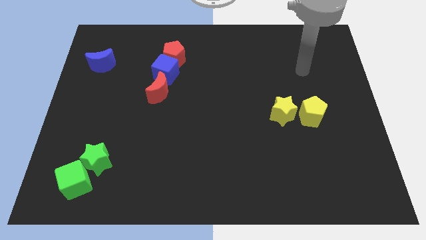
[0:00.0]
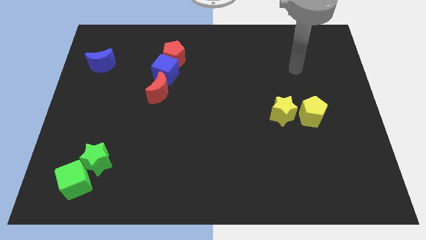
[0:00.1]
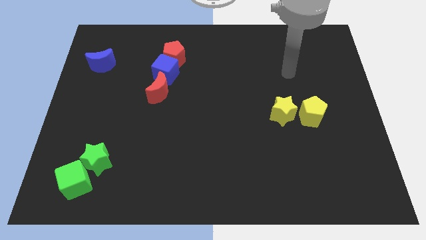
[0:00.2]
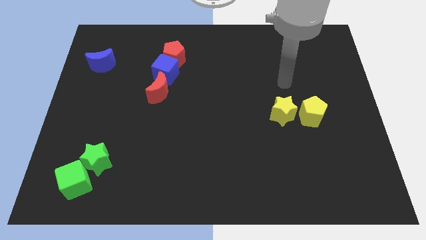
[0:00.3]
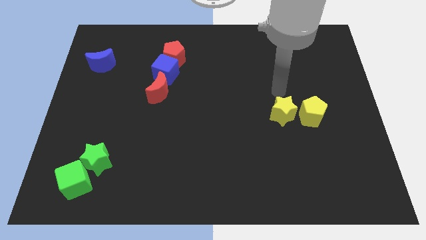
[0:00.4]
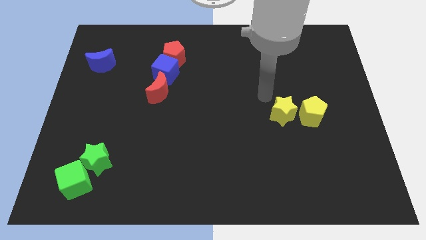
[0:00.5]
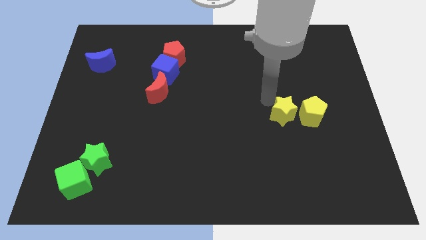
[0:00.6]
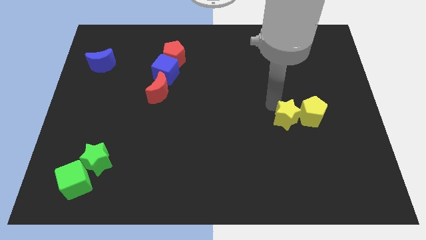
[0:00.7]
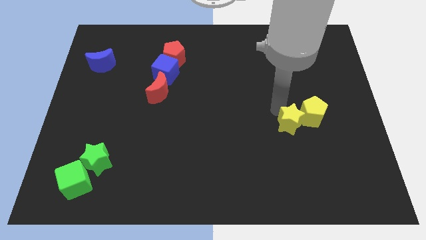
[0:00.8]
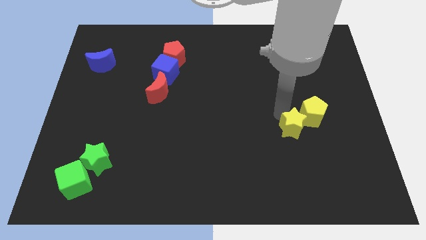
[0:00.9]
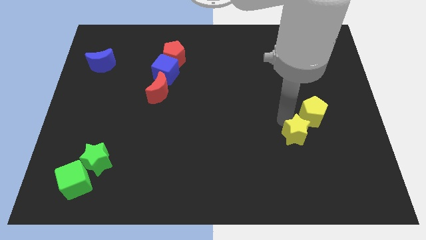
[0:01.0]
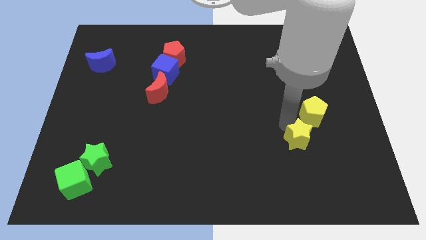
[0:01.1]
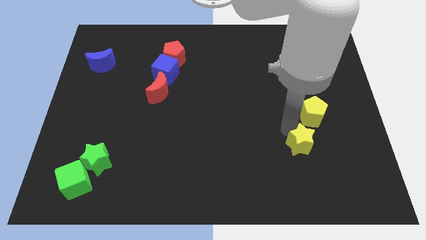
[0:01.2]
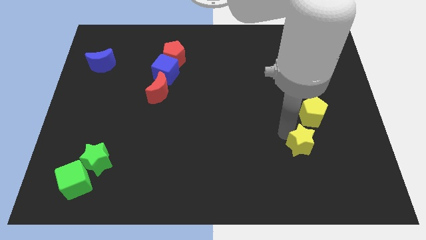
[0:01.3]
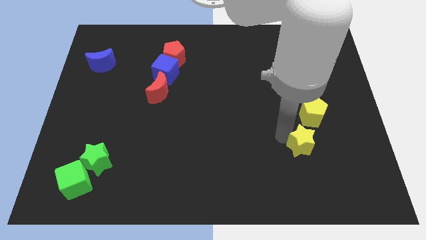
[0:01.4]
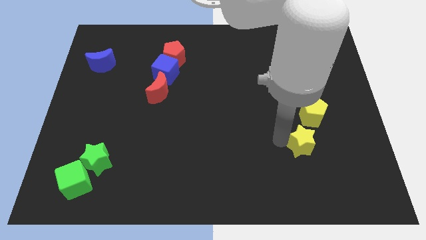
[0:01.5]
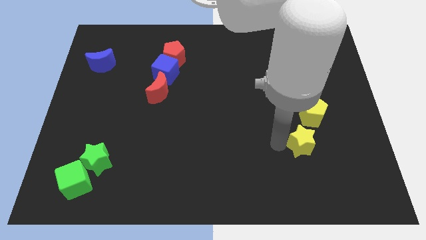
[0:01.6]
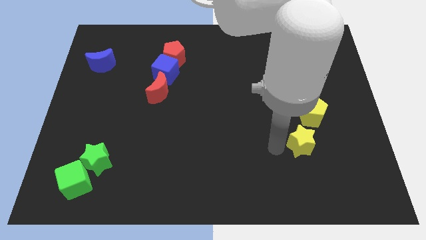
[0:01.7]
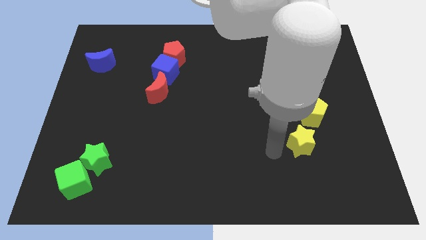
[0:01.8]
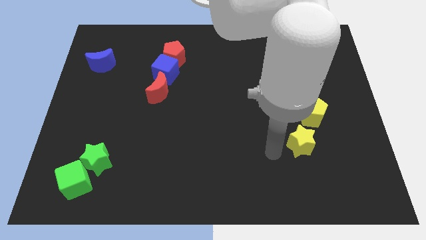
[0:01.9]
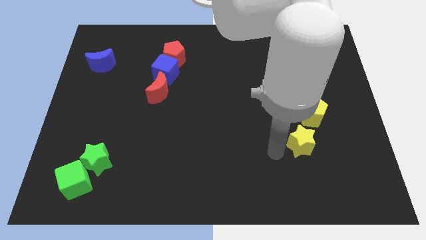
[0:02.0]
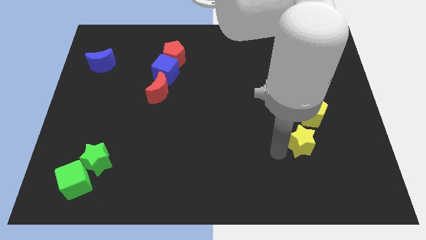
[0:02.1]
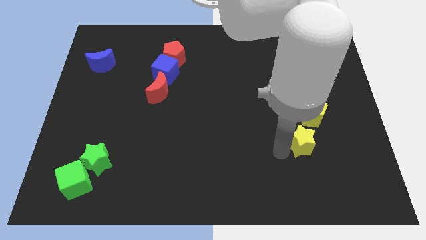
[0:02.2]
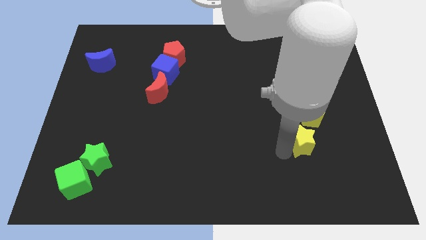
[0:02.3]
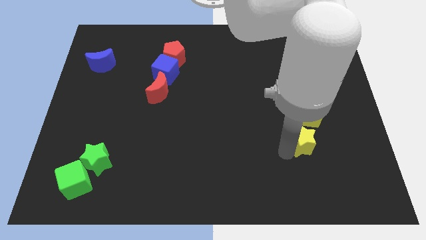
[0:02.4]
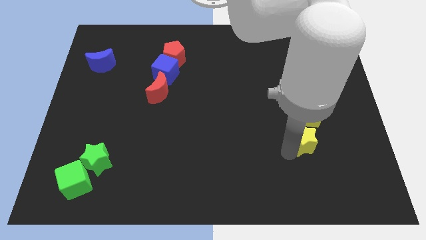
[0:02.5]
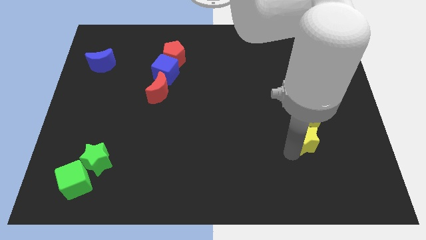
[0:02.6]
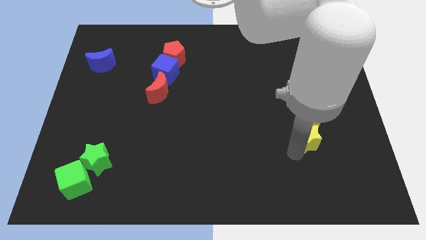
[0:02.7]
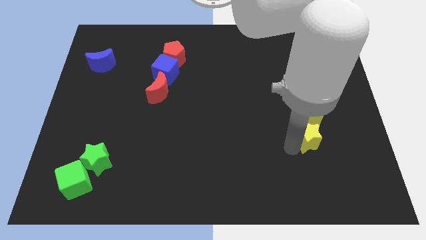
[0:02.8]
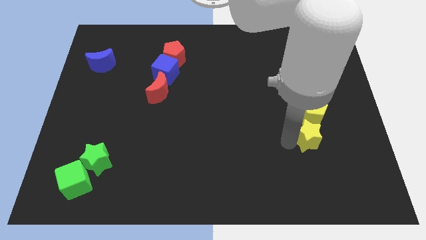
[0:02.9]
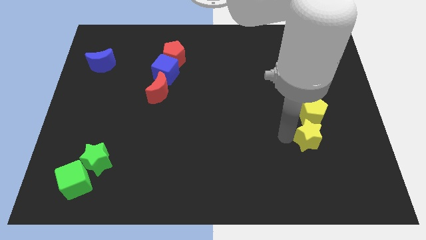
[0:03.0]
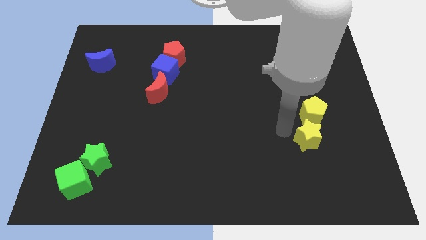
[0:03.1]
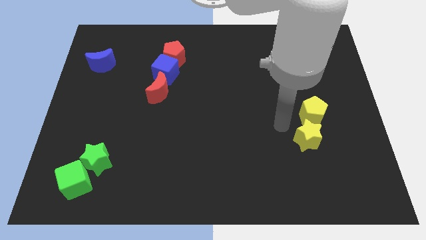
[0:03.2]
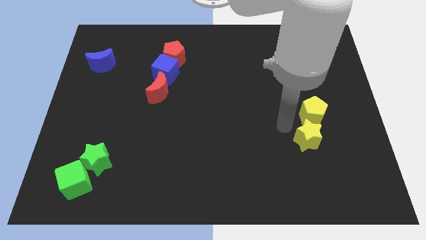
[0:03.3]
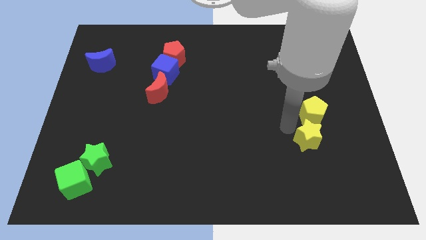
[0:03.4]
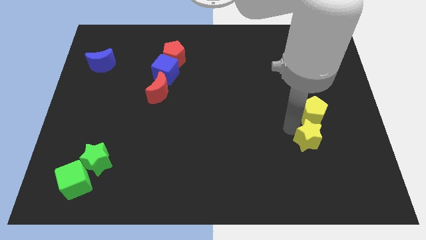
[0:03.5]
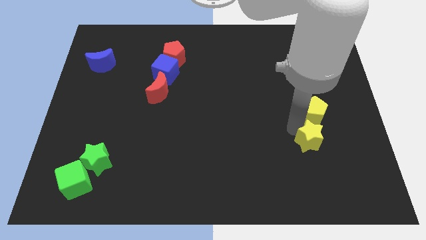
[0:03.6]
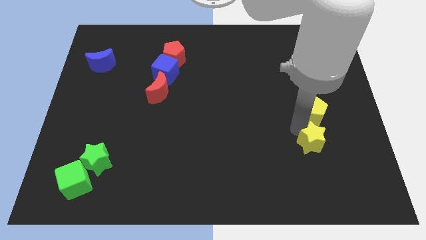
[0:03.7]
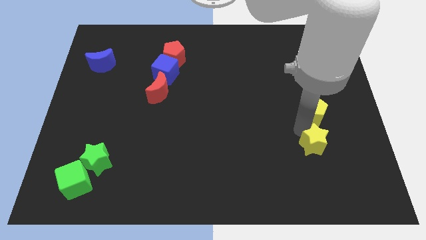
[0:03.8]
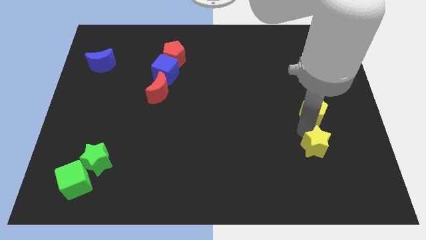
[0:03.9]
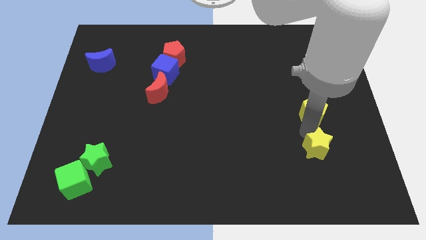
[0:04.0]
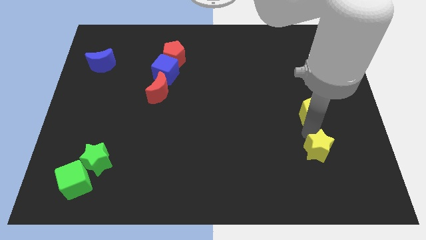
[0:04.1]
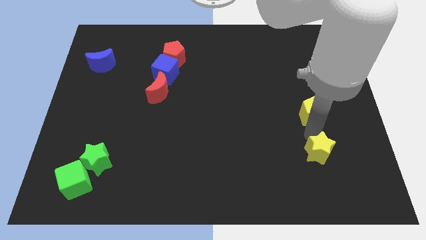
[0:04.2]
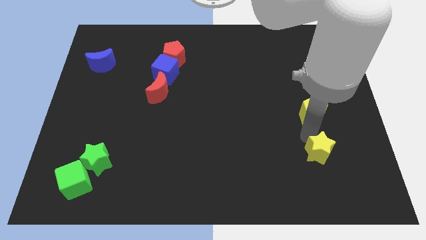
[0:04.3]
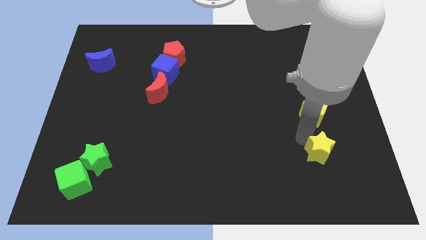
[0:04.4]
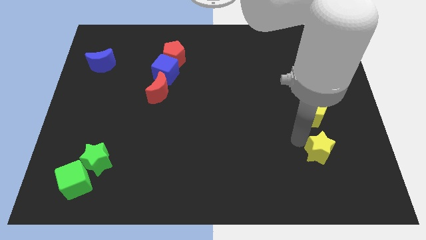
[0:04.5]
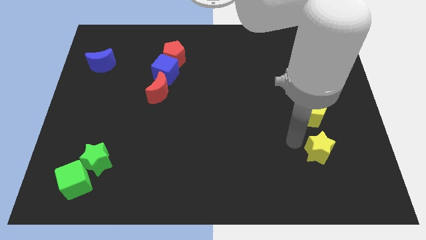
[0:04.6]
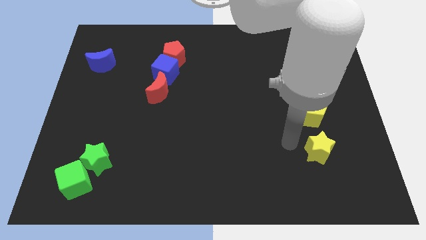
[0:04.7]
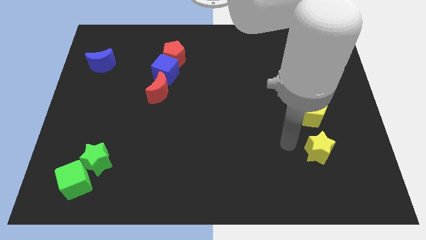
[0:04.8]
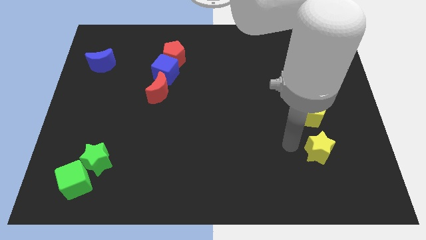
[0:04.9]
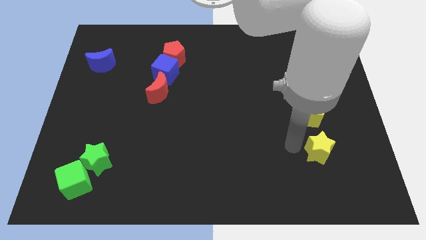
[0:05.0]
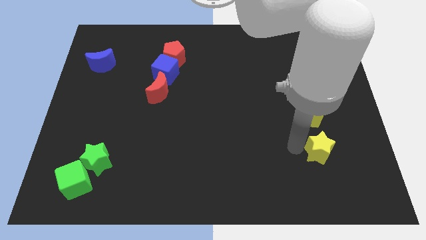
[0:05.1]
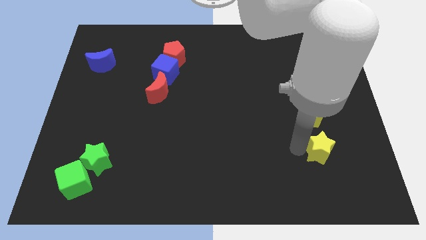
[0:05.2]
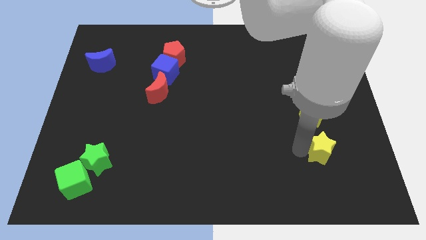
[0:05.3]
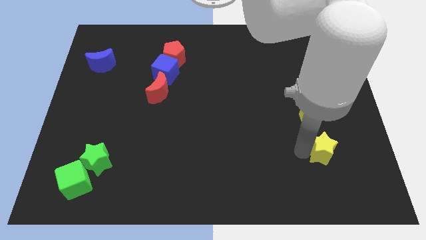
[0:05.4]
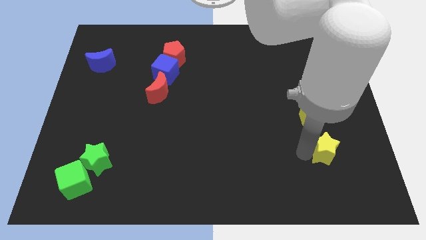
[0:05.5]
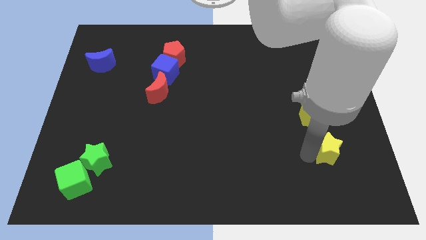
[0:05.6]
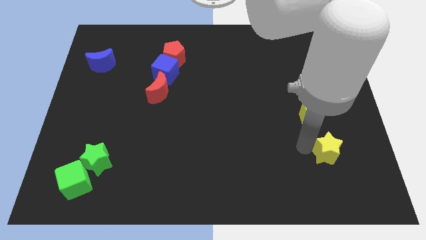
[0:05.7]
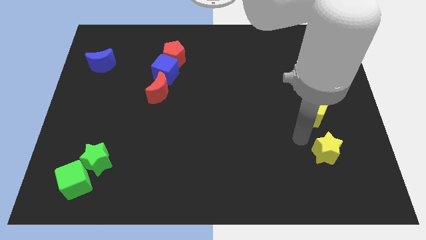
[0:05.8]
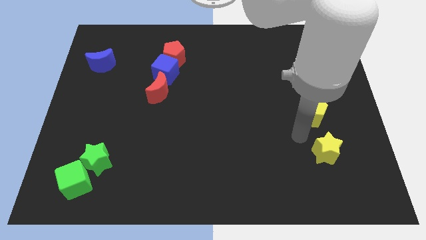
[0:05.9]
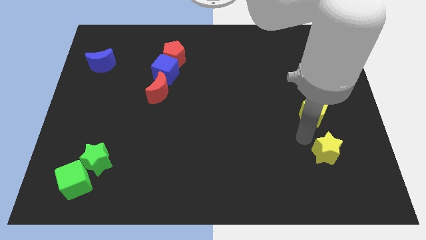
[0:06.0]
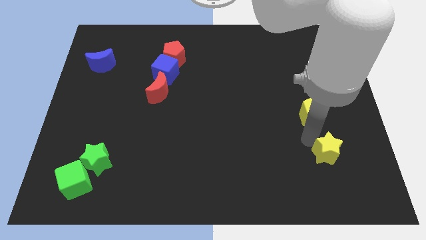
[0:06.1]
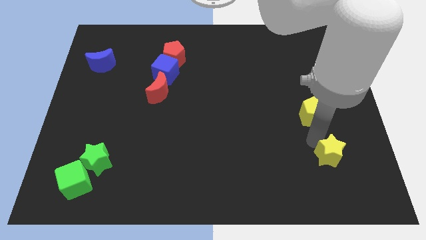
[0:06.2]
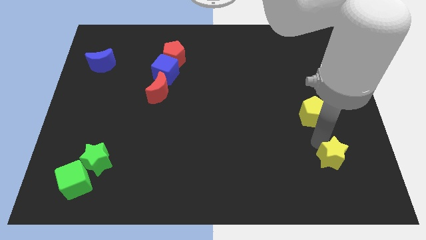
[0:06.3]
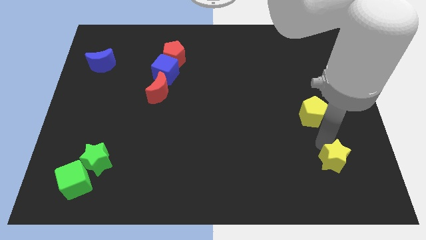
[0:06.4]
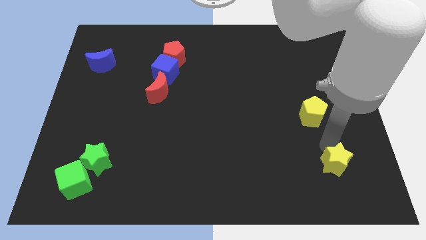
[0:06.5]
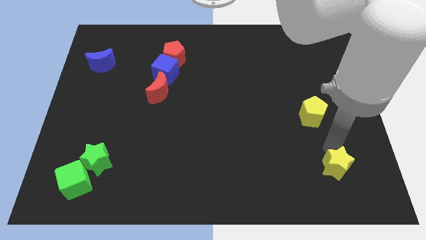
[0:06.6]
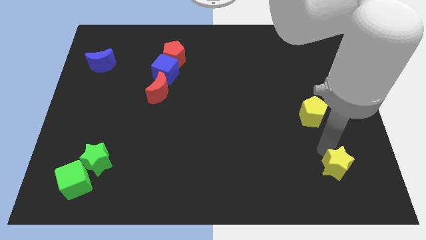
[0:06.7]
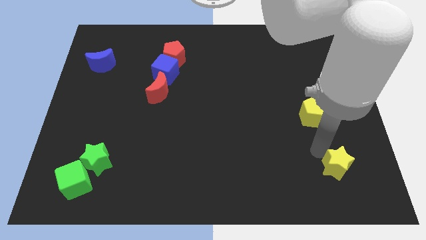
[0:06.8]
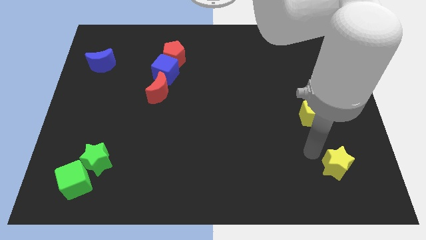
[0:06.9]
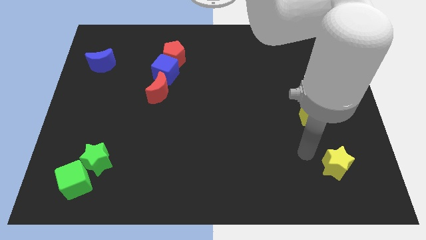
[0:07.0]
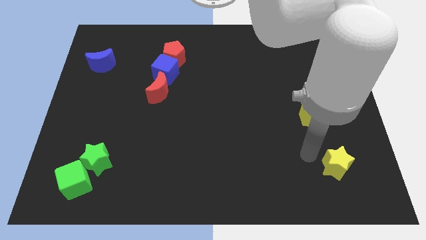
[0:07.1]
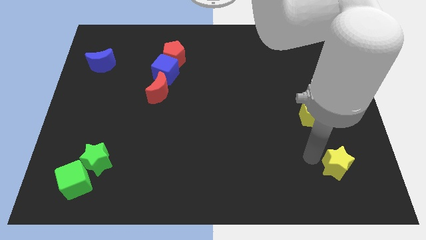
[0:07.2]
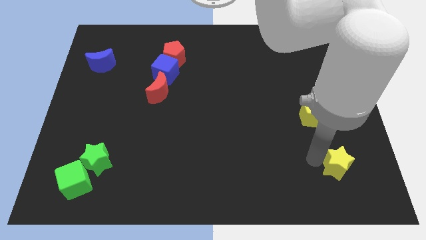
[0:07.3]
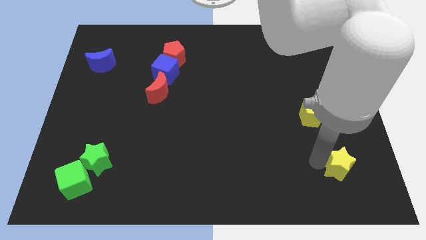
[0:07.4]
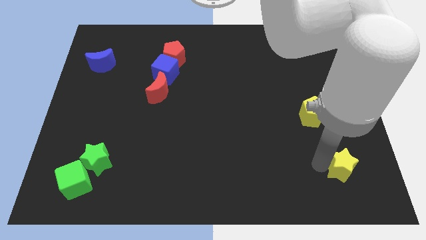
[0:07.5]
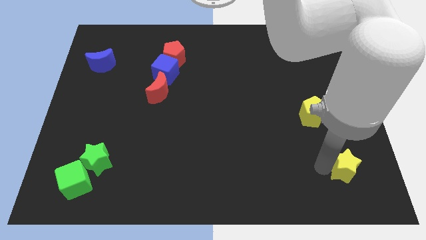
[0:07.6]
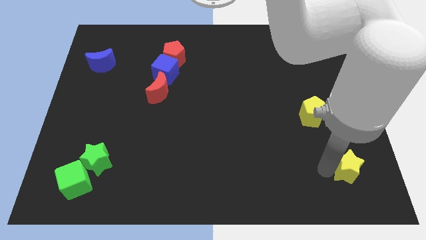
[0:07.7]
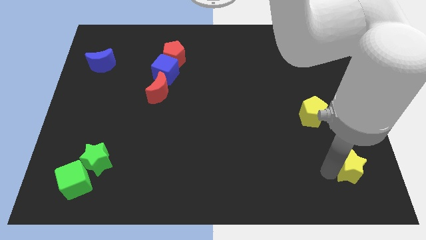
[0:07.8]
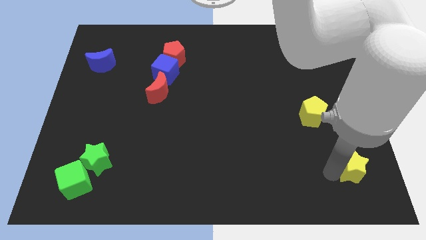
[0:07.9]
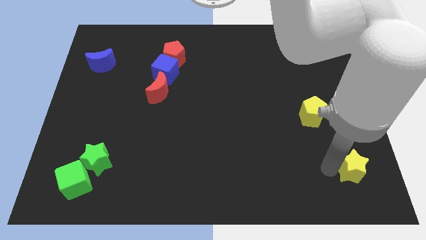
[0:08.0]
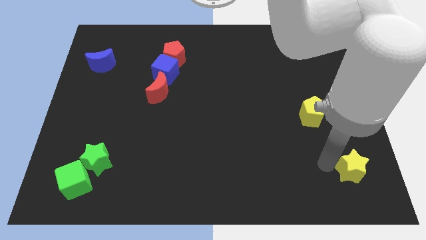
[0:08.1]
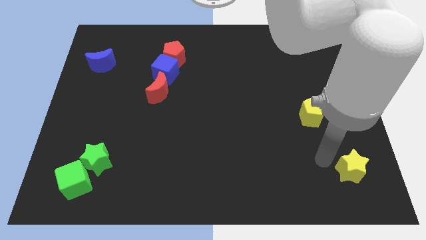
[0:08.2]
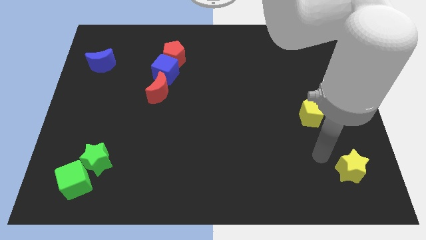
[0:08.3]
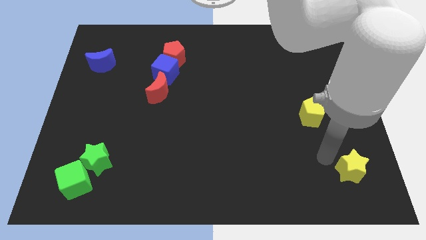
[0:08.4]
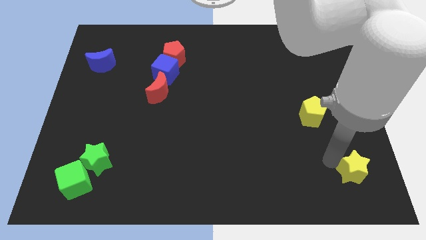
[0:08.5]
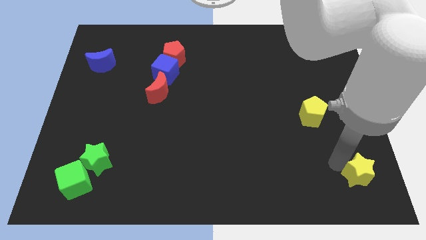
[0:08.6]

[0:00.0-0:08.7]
put the yellow star to the bottom right of the board
